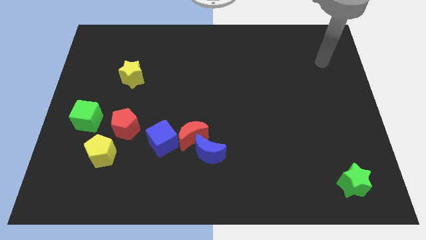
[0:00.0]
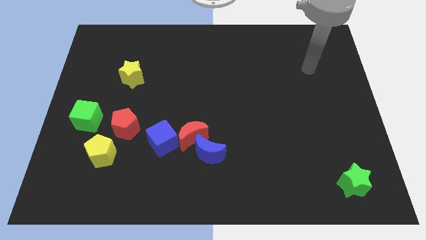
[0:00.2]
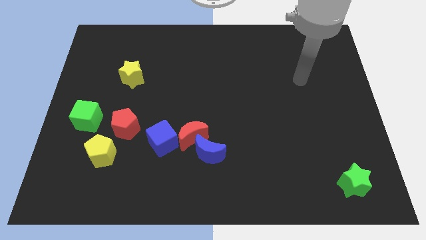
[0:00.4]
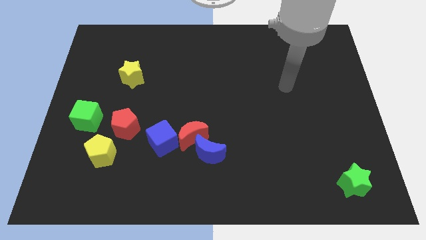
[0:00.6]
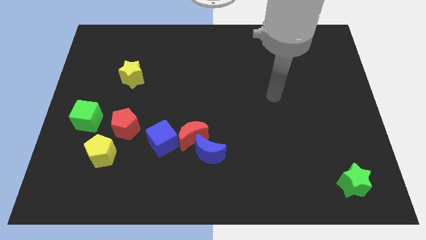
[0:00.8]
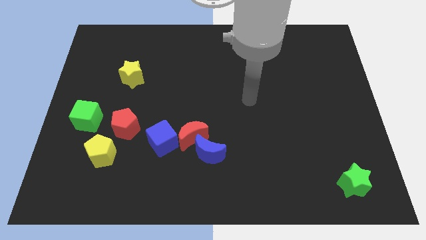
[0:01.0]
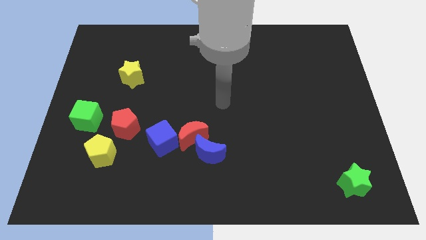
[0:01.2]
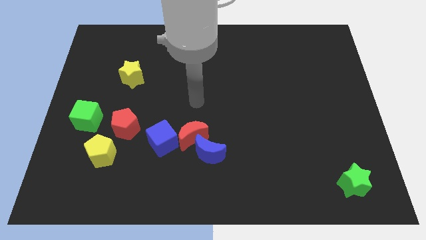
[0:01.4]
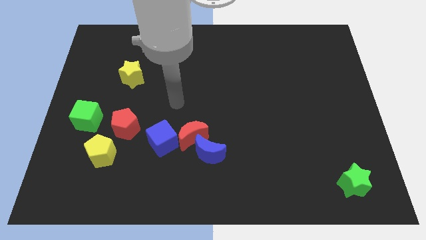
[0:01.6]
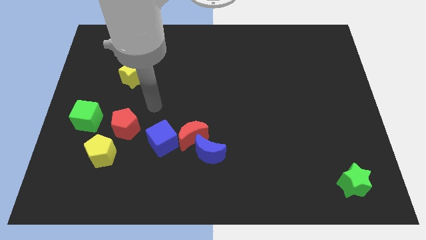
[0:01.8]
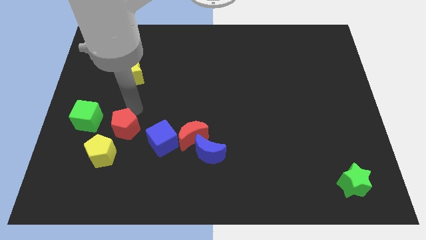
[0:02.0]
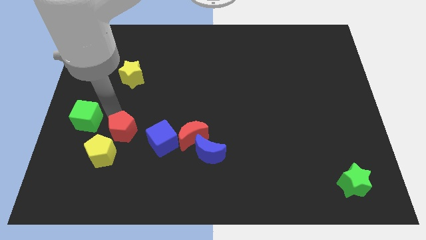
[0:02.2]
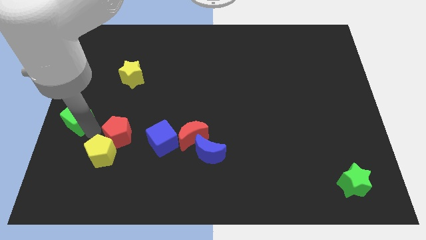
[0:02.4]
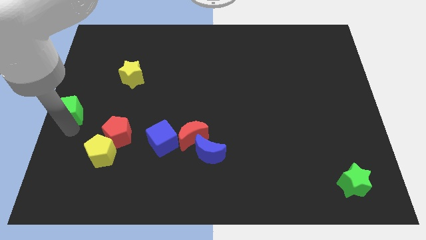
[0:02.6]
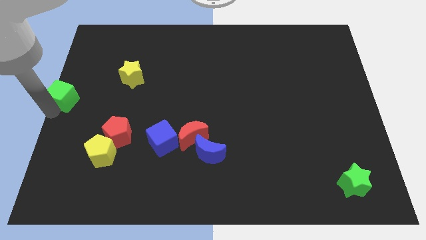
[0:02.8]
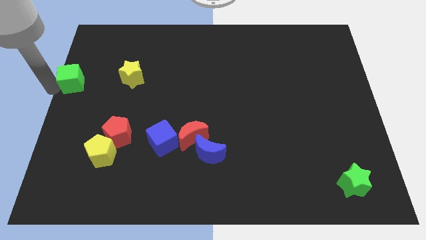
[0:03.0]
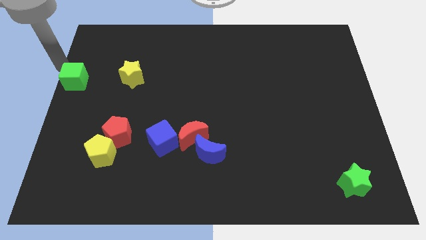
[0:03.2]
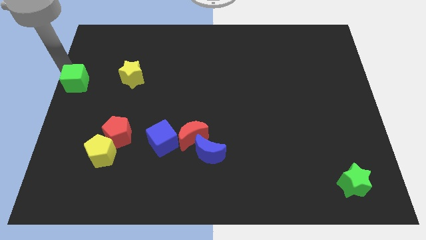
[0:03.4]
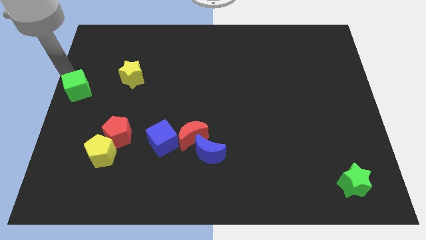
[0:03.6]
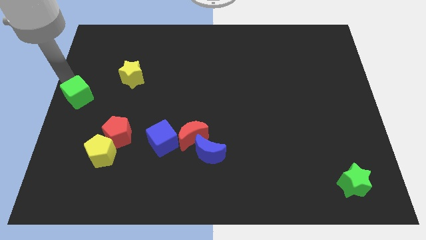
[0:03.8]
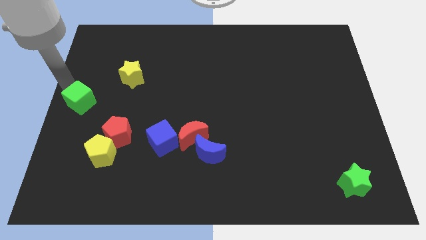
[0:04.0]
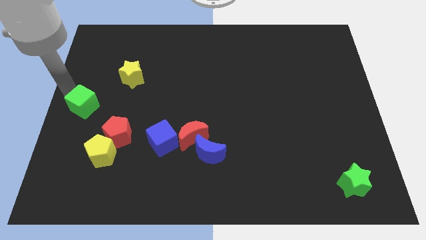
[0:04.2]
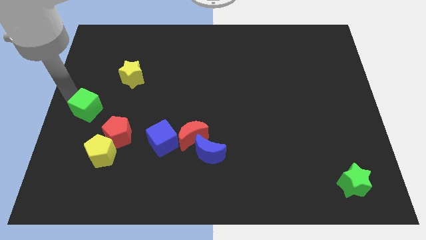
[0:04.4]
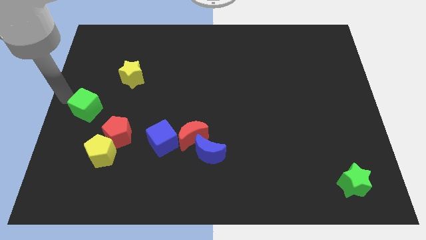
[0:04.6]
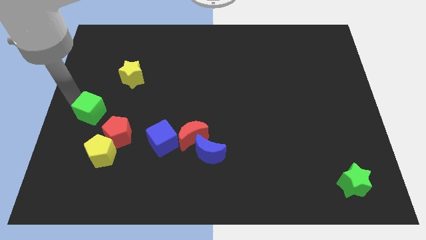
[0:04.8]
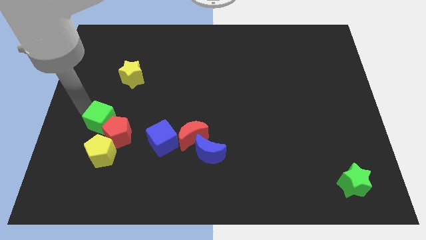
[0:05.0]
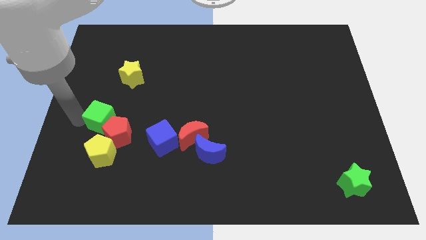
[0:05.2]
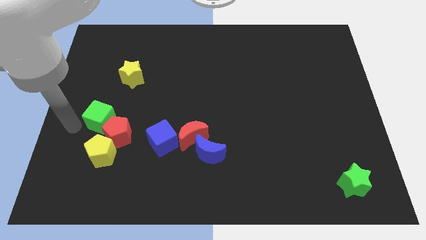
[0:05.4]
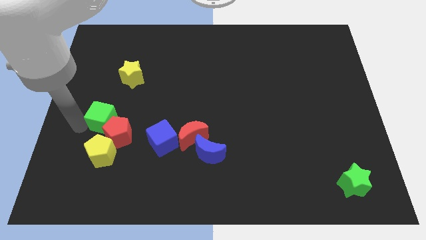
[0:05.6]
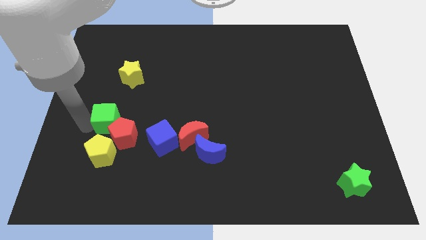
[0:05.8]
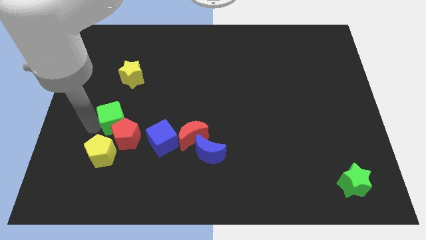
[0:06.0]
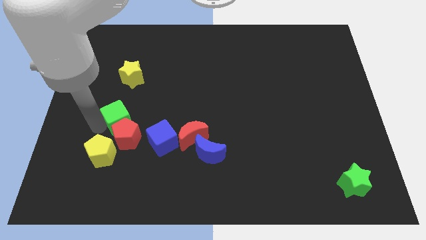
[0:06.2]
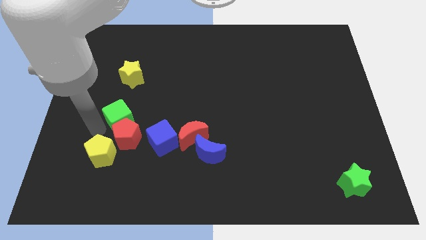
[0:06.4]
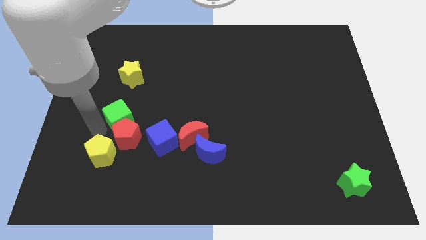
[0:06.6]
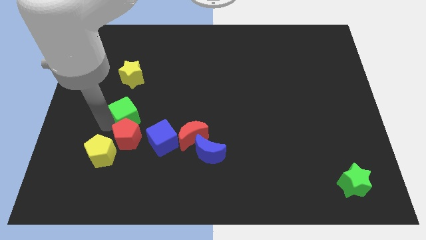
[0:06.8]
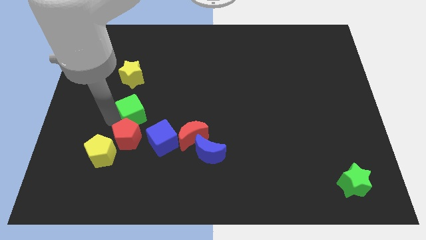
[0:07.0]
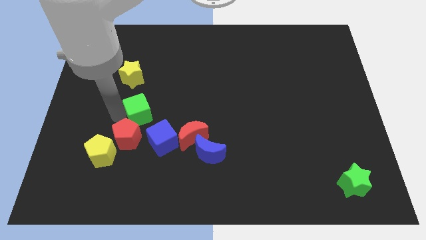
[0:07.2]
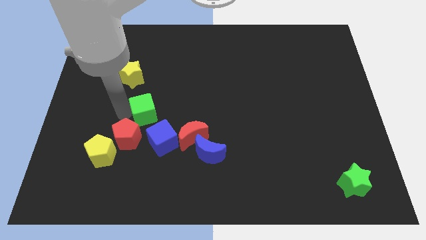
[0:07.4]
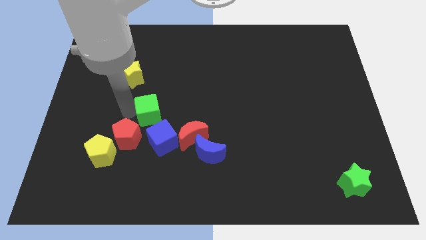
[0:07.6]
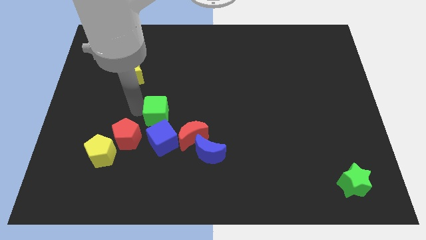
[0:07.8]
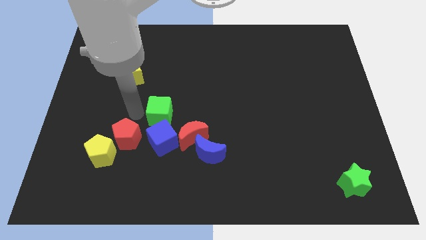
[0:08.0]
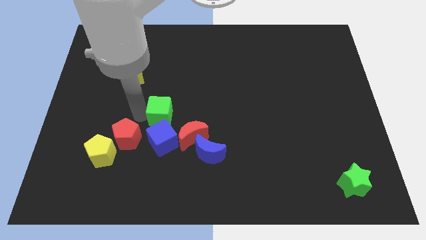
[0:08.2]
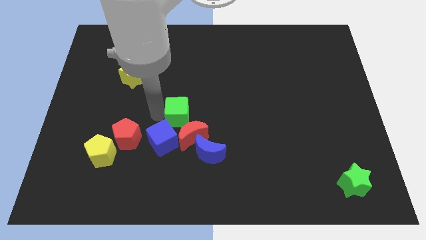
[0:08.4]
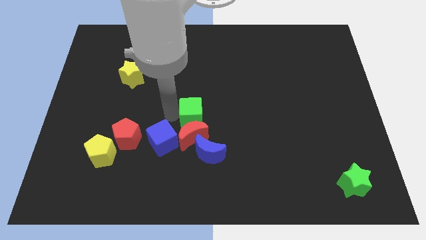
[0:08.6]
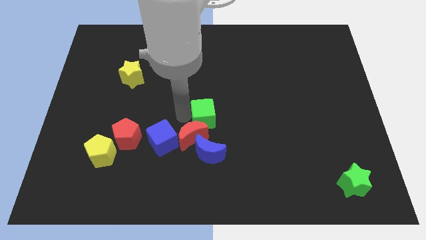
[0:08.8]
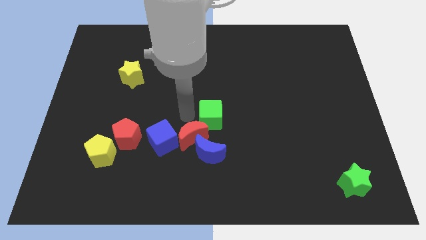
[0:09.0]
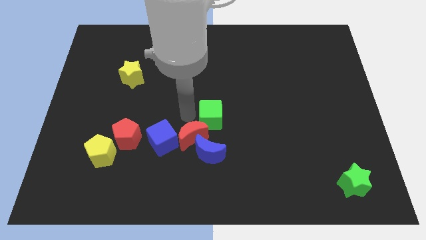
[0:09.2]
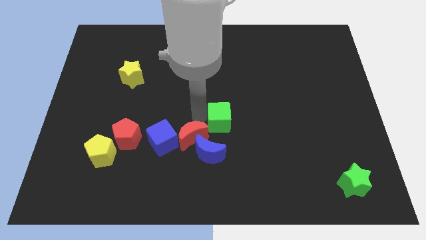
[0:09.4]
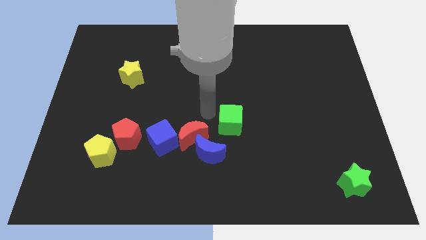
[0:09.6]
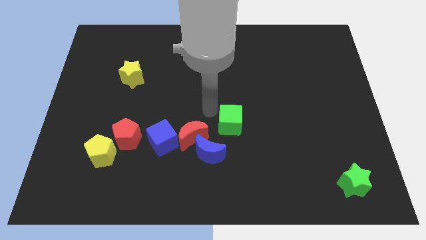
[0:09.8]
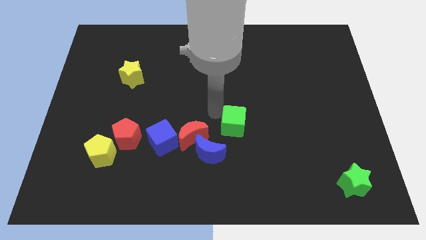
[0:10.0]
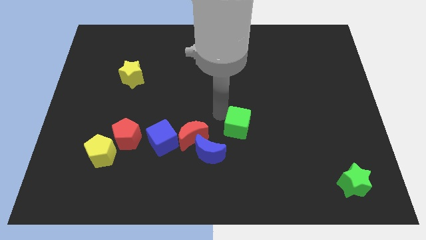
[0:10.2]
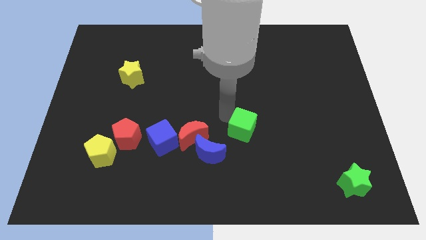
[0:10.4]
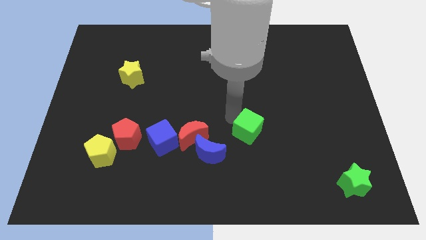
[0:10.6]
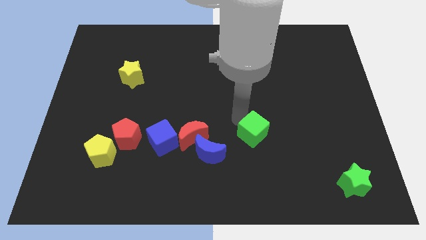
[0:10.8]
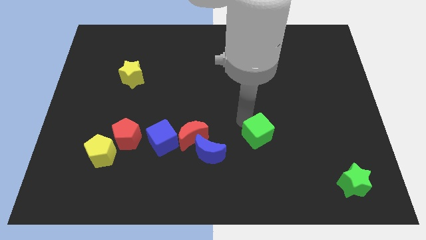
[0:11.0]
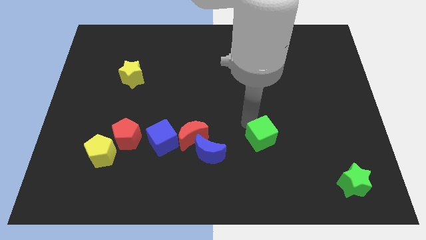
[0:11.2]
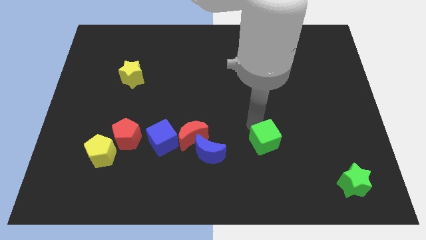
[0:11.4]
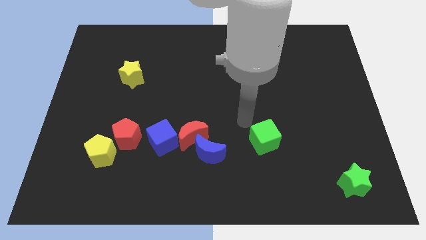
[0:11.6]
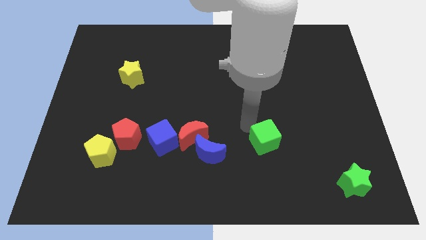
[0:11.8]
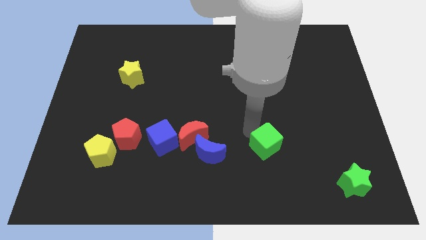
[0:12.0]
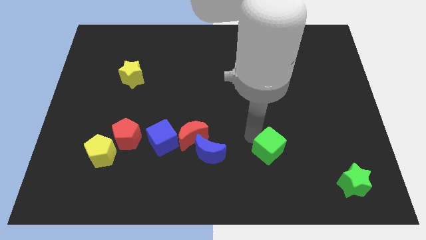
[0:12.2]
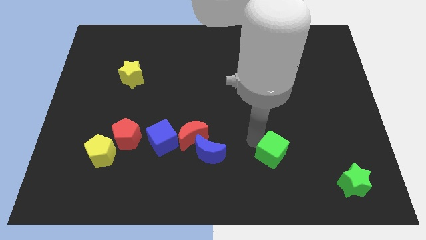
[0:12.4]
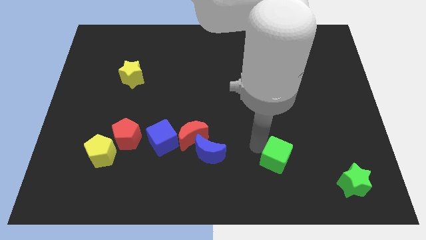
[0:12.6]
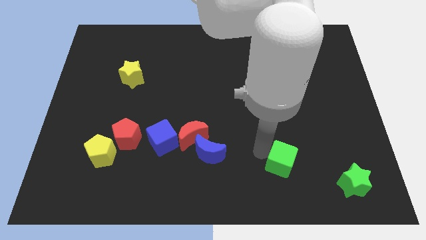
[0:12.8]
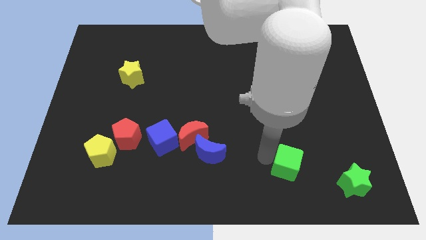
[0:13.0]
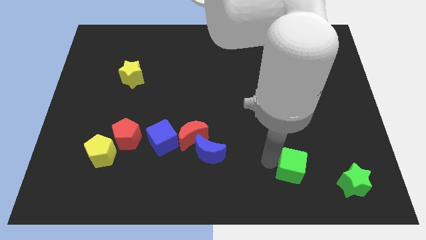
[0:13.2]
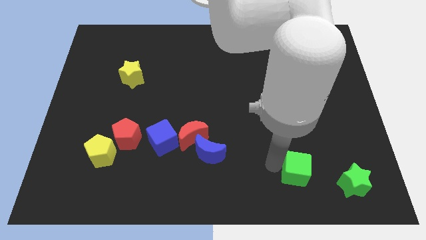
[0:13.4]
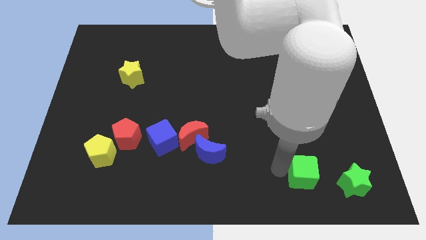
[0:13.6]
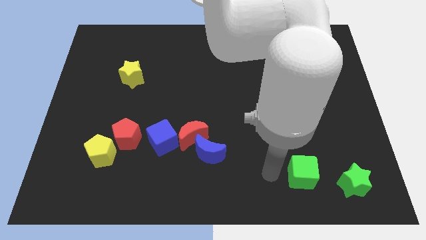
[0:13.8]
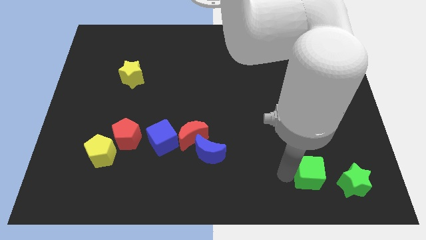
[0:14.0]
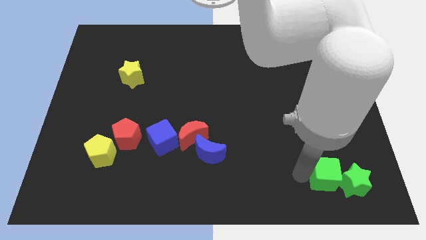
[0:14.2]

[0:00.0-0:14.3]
push the green cube close to the green star

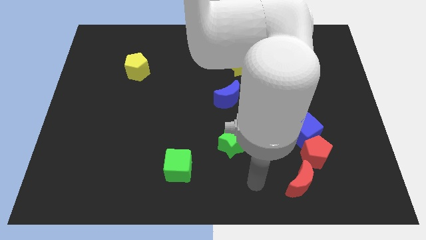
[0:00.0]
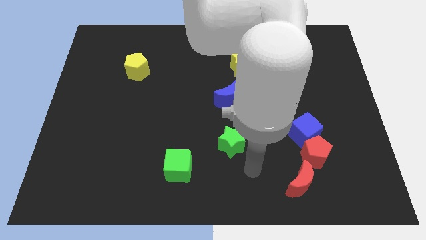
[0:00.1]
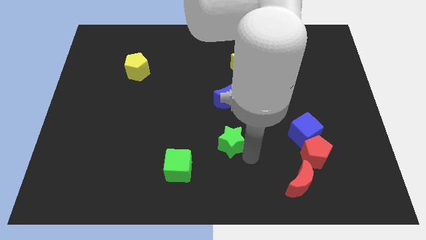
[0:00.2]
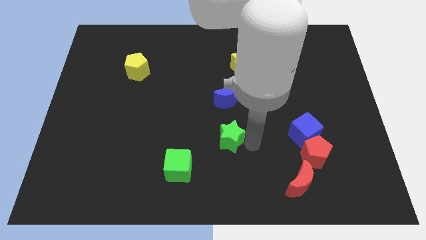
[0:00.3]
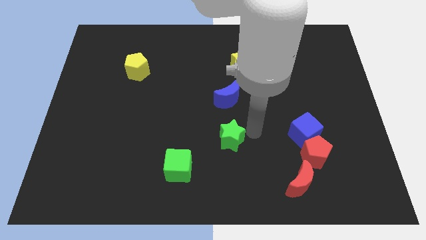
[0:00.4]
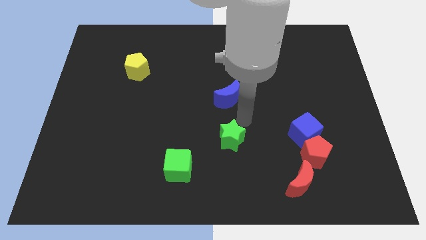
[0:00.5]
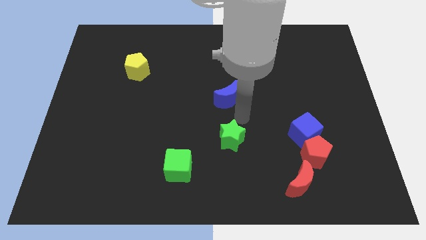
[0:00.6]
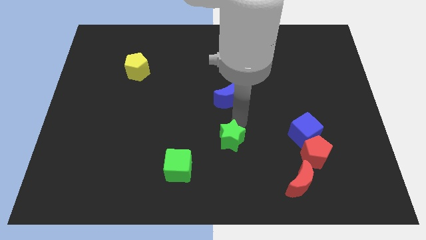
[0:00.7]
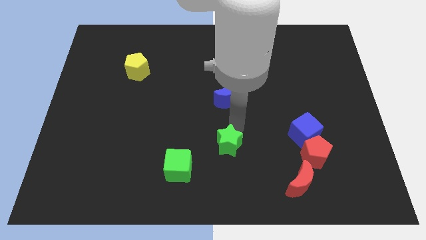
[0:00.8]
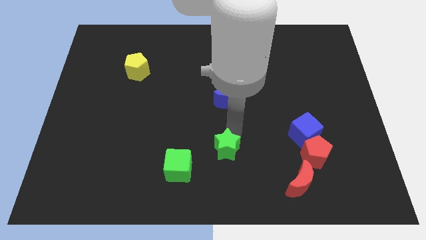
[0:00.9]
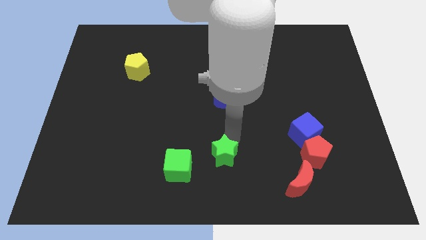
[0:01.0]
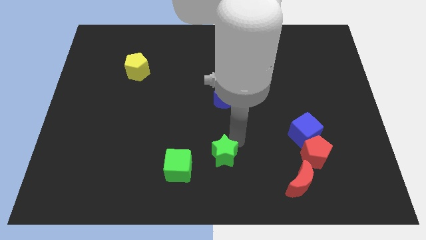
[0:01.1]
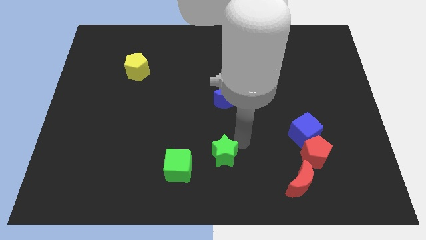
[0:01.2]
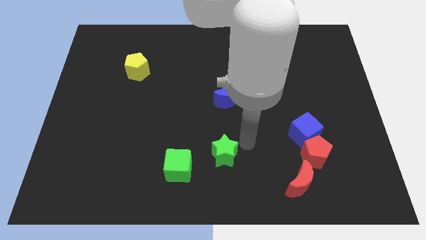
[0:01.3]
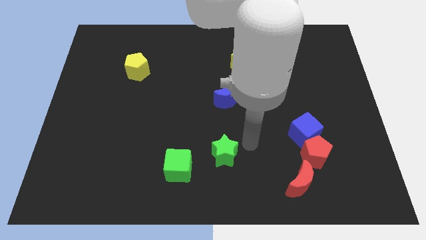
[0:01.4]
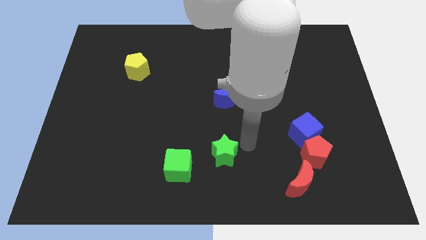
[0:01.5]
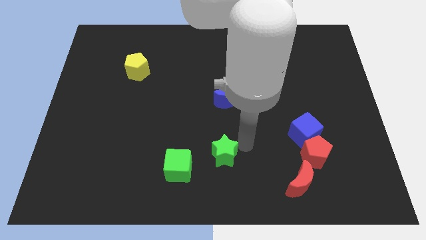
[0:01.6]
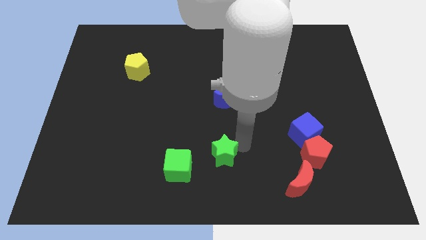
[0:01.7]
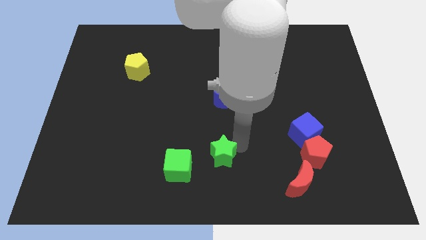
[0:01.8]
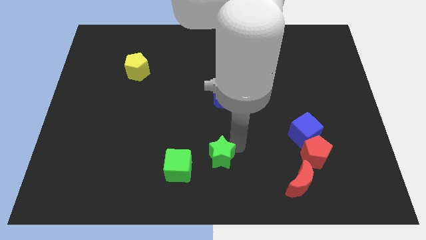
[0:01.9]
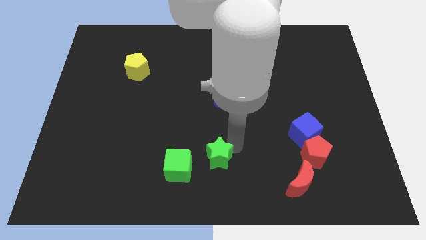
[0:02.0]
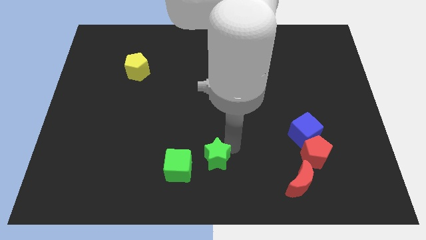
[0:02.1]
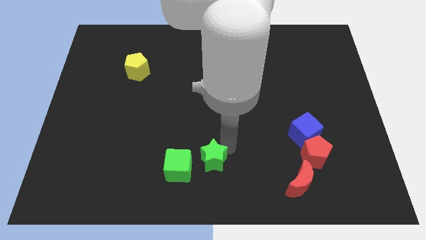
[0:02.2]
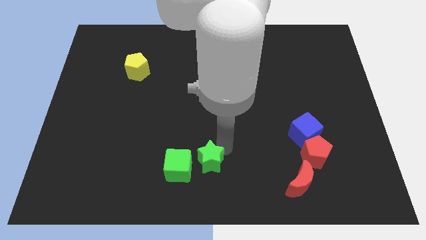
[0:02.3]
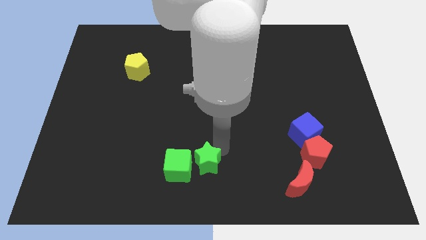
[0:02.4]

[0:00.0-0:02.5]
put the green star next to the green cube
